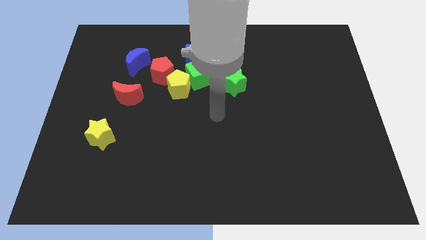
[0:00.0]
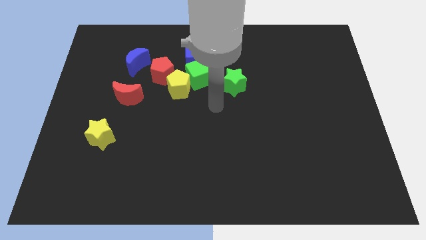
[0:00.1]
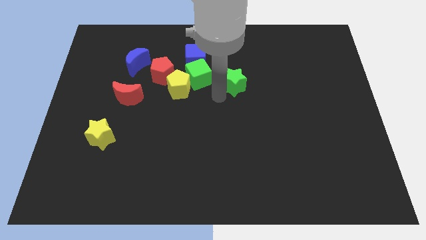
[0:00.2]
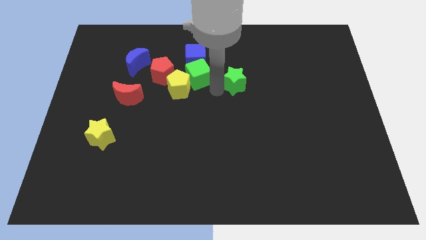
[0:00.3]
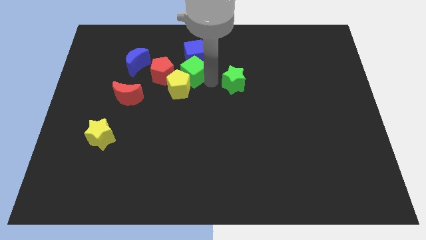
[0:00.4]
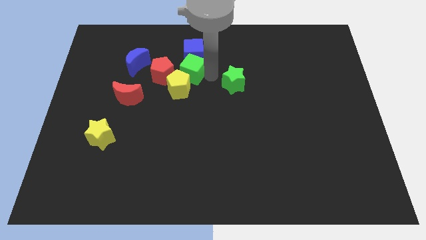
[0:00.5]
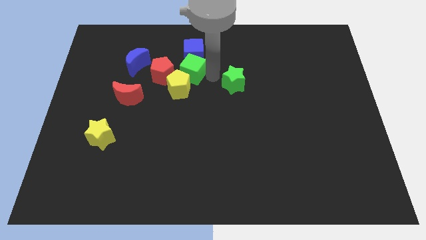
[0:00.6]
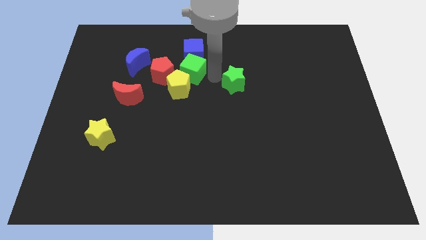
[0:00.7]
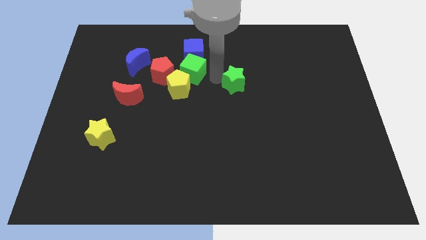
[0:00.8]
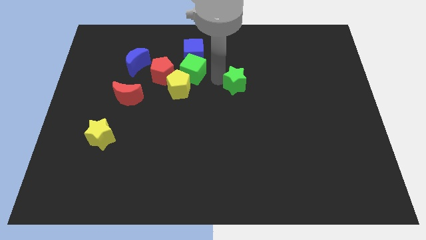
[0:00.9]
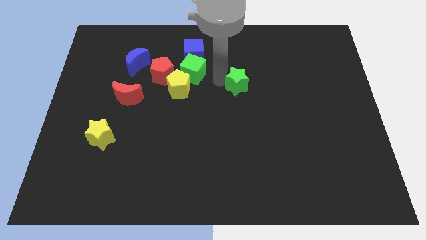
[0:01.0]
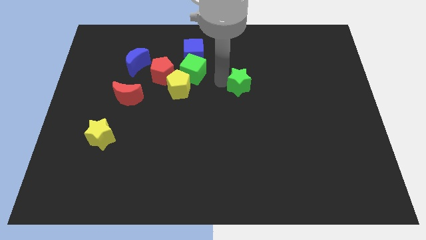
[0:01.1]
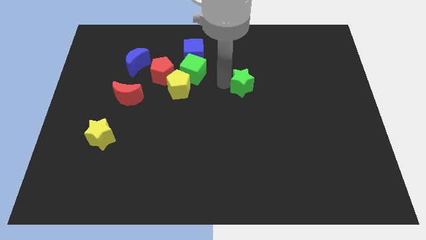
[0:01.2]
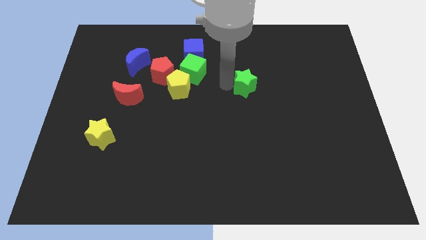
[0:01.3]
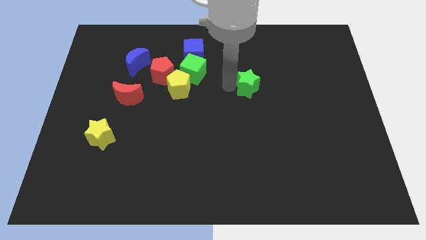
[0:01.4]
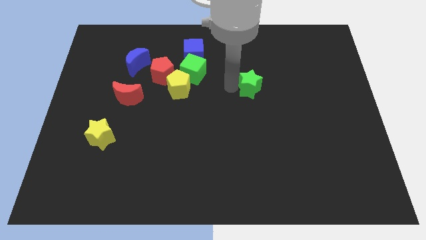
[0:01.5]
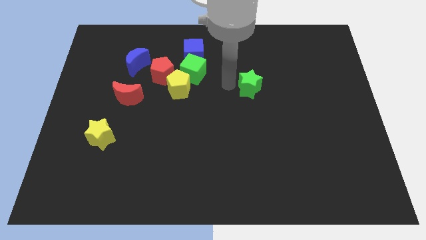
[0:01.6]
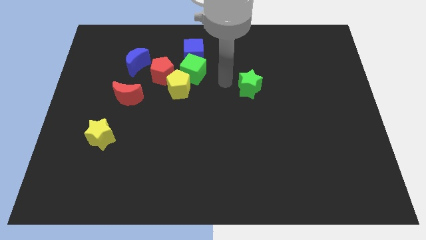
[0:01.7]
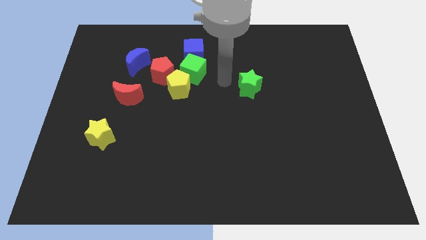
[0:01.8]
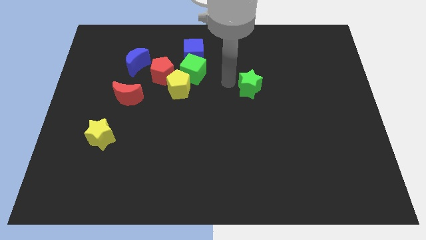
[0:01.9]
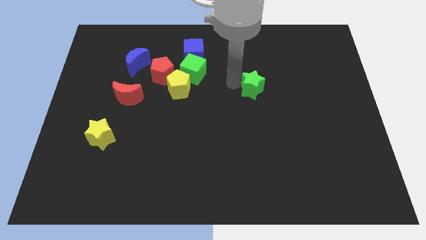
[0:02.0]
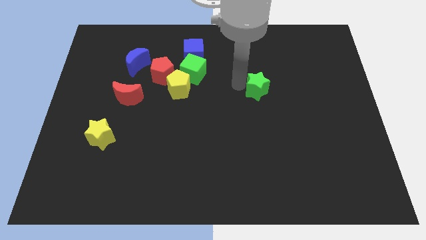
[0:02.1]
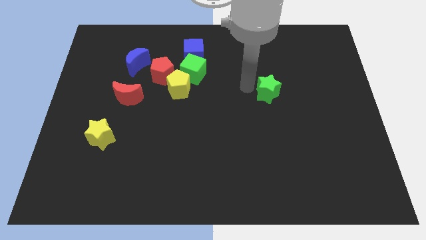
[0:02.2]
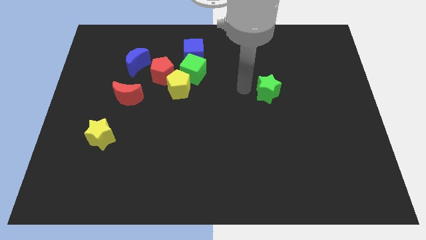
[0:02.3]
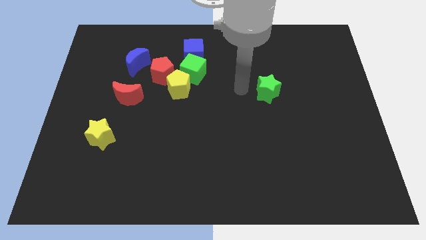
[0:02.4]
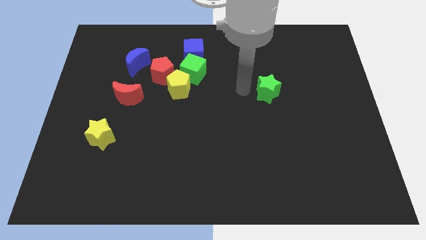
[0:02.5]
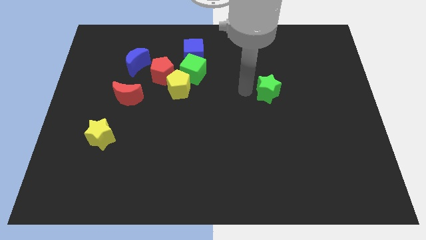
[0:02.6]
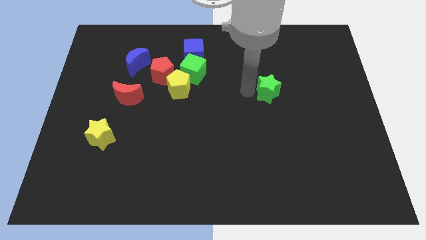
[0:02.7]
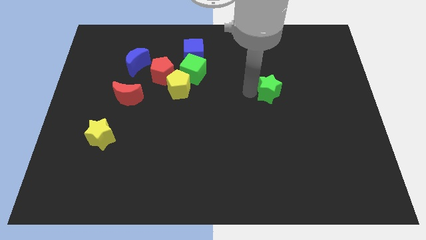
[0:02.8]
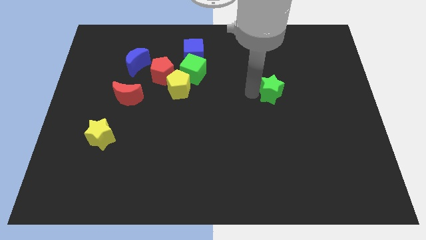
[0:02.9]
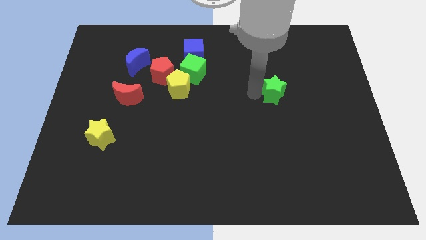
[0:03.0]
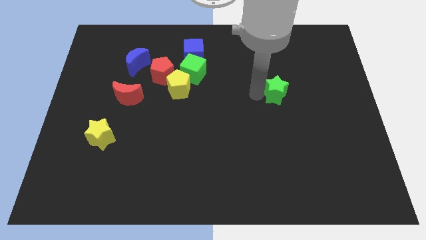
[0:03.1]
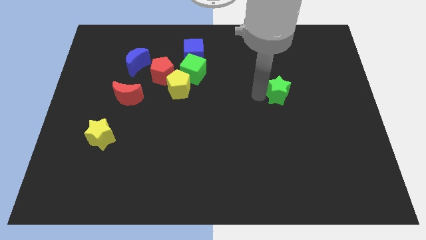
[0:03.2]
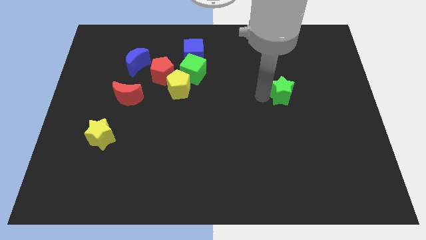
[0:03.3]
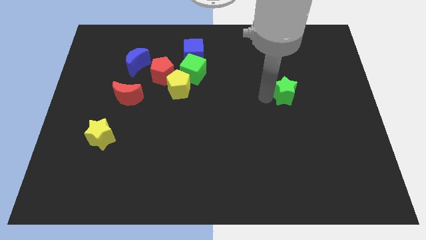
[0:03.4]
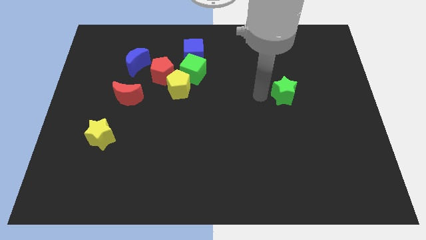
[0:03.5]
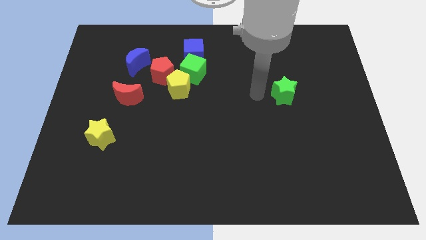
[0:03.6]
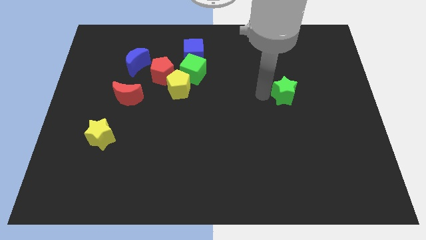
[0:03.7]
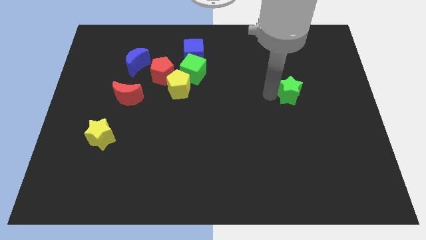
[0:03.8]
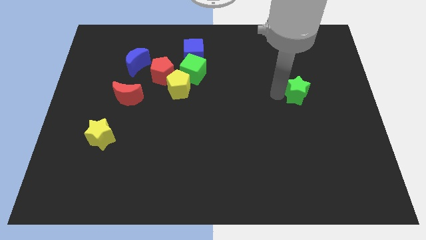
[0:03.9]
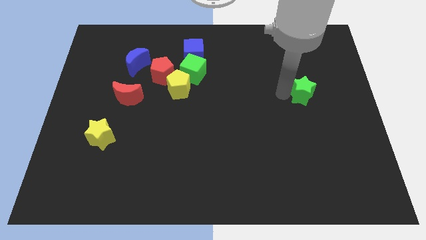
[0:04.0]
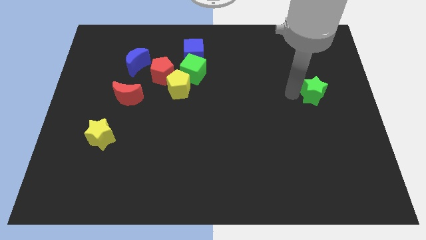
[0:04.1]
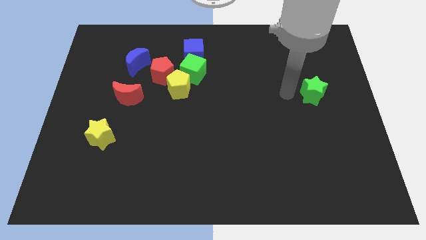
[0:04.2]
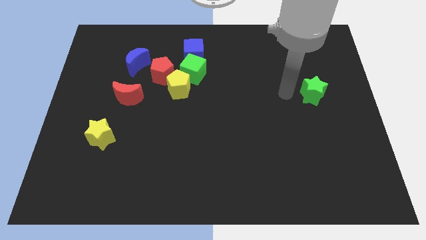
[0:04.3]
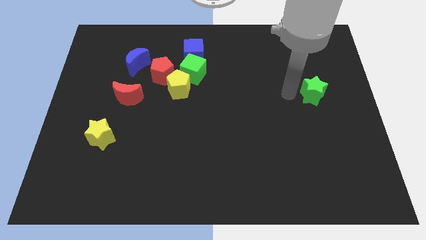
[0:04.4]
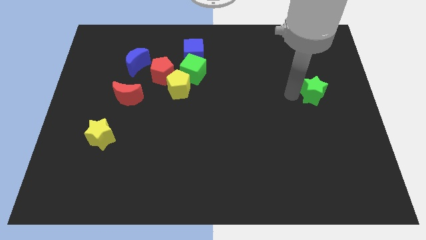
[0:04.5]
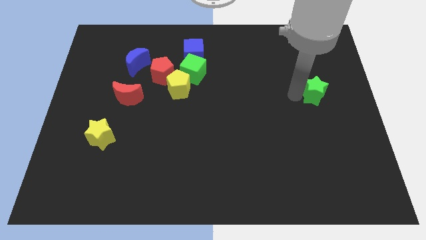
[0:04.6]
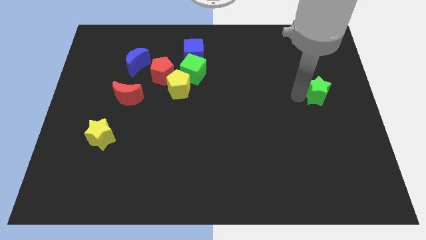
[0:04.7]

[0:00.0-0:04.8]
slide the green star to the right side

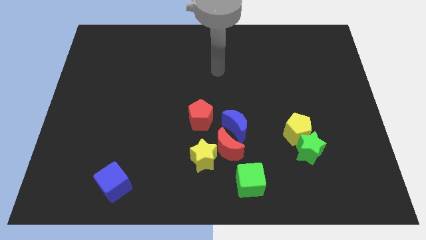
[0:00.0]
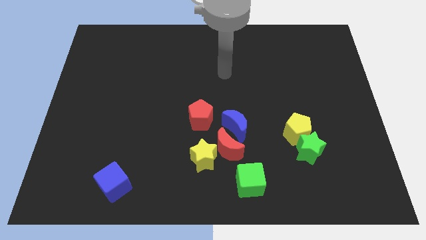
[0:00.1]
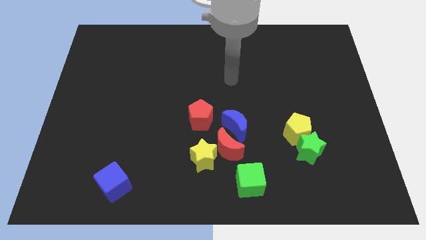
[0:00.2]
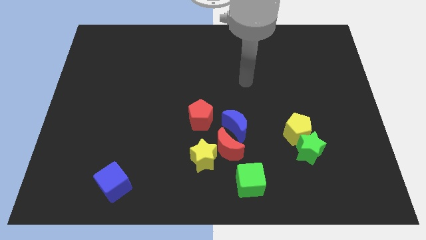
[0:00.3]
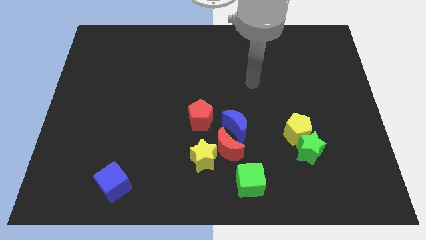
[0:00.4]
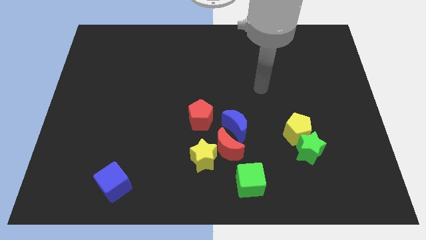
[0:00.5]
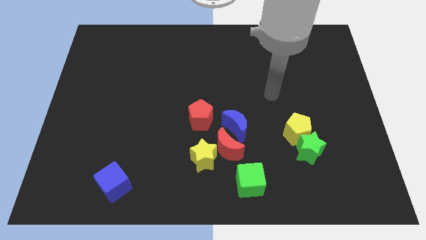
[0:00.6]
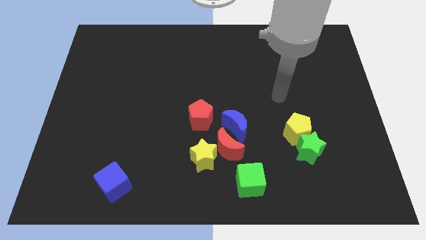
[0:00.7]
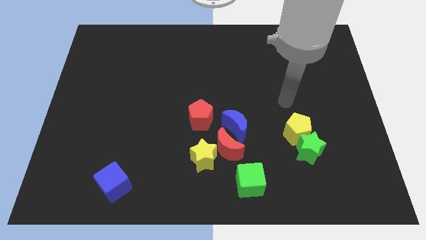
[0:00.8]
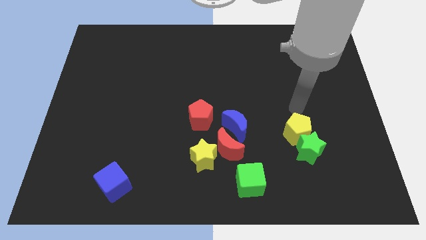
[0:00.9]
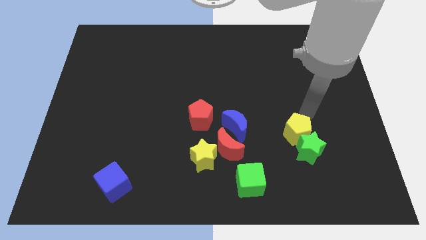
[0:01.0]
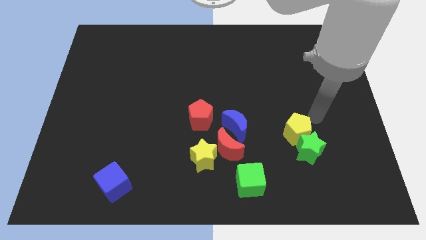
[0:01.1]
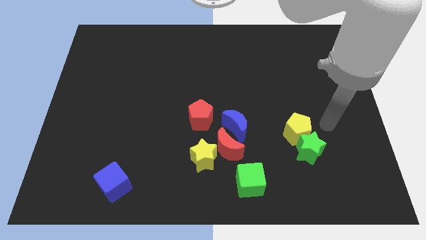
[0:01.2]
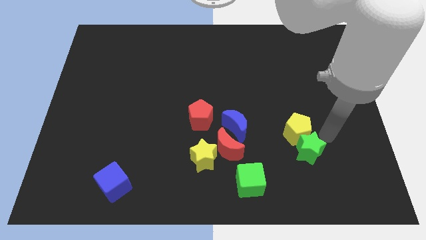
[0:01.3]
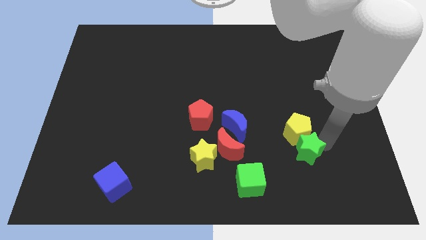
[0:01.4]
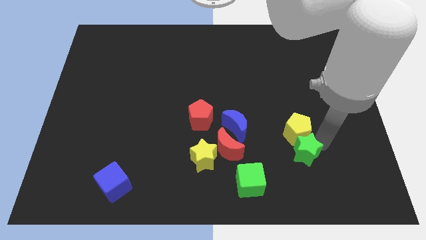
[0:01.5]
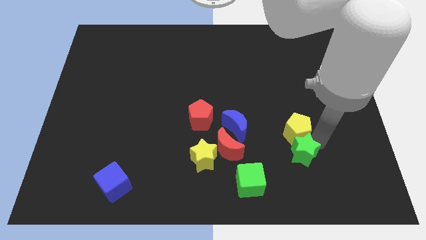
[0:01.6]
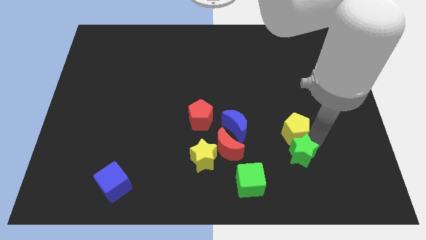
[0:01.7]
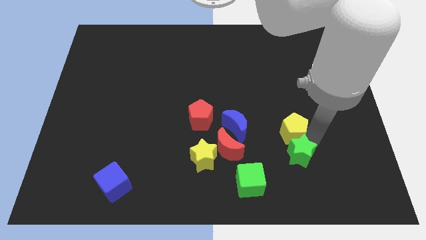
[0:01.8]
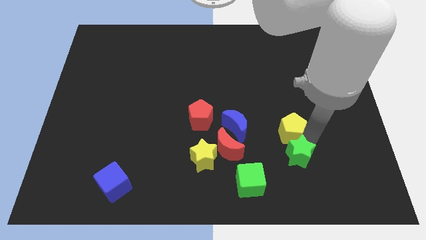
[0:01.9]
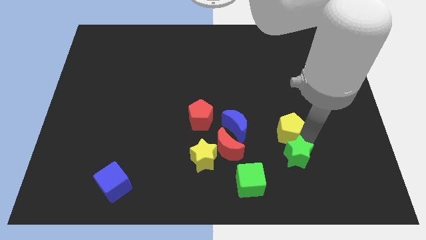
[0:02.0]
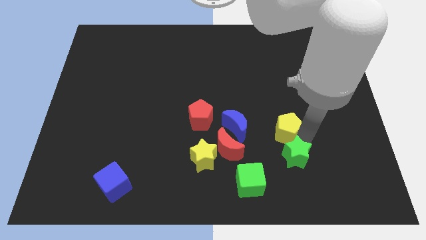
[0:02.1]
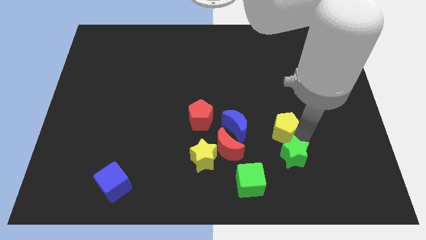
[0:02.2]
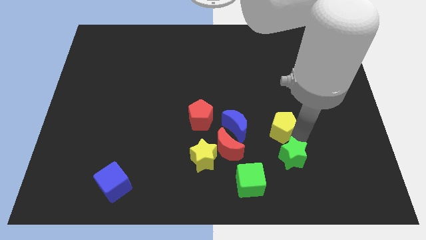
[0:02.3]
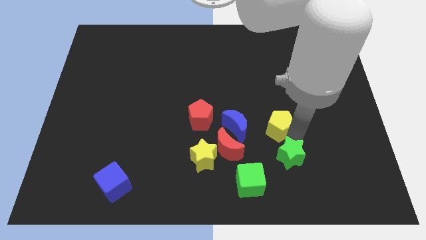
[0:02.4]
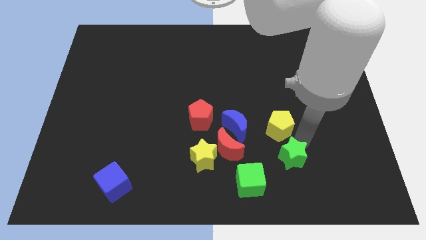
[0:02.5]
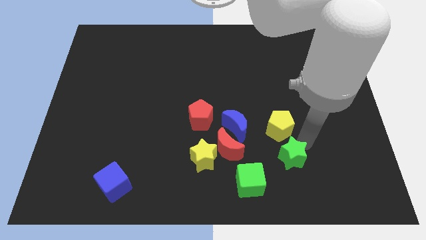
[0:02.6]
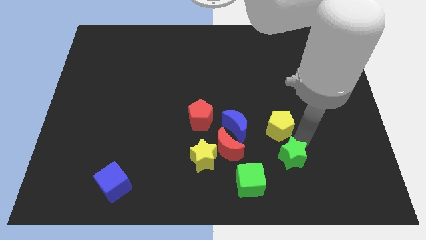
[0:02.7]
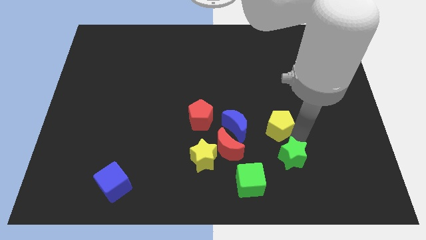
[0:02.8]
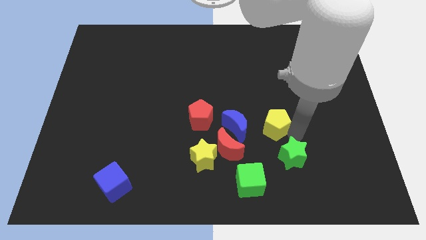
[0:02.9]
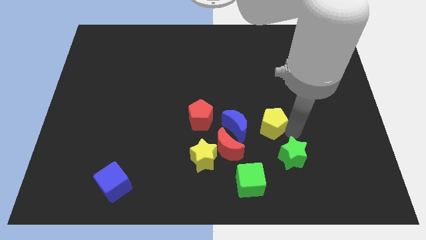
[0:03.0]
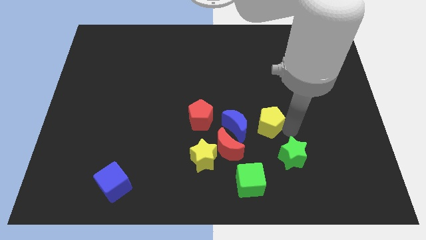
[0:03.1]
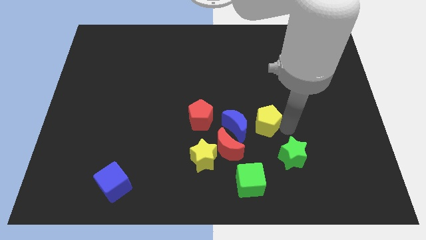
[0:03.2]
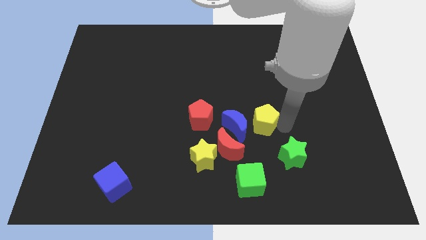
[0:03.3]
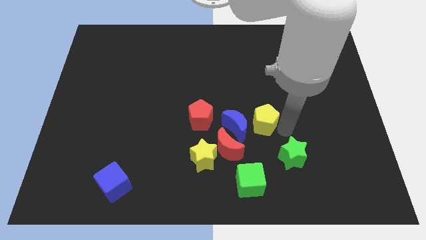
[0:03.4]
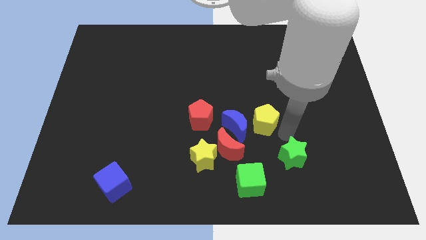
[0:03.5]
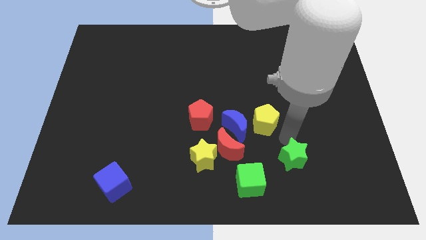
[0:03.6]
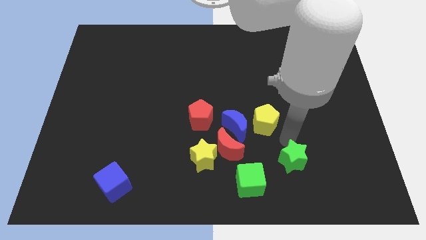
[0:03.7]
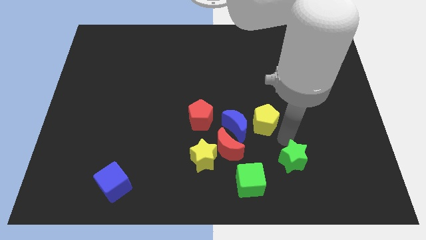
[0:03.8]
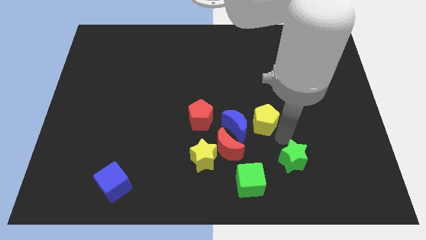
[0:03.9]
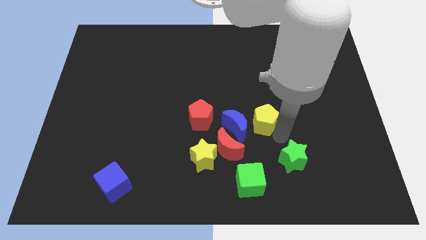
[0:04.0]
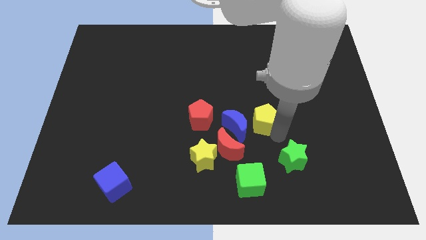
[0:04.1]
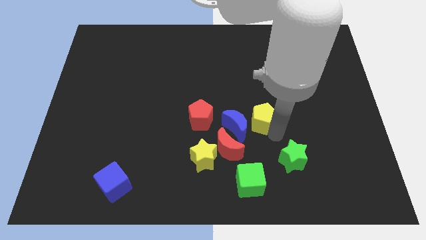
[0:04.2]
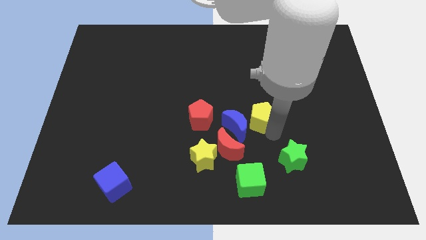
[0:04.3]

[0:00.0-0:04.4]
put the yellow pentagon to the center of the board
